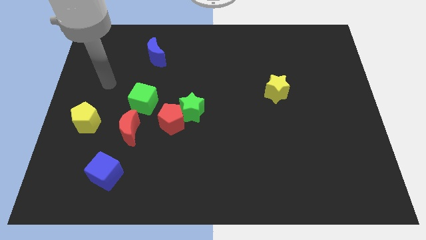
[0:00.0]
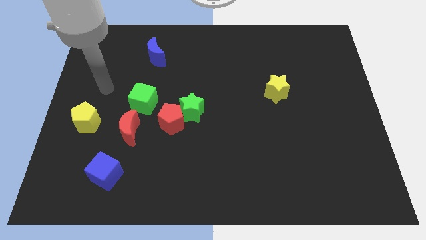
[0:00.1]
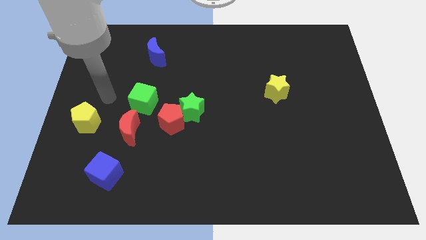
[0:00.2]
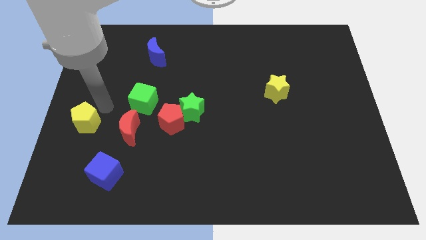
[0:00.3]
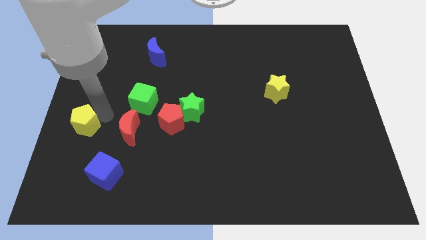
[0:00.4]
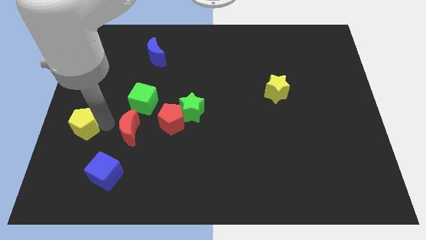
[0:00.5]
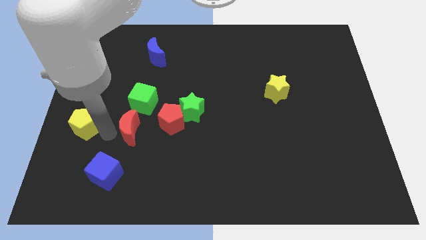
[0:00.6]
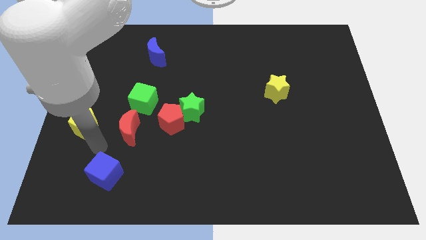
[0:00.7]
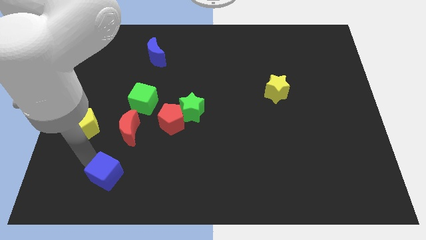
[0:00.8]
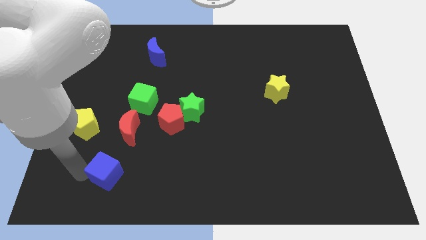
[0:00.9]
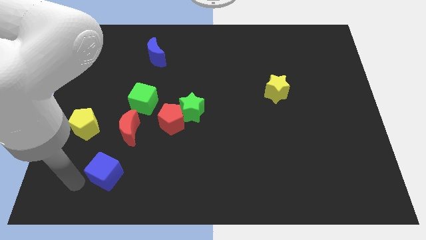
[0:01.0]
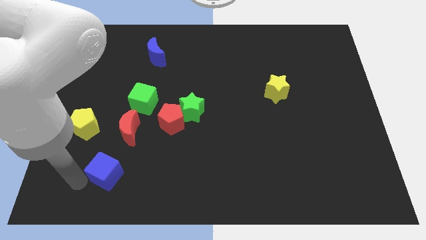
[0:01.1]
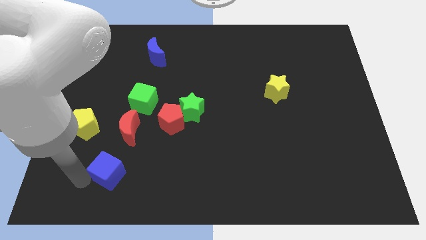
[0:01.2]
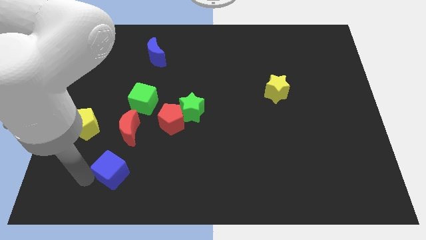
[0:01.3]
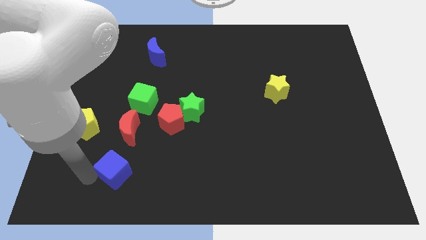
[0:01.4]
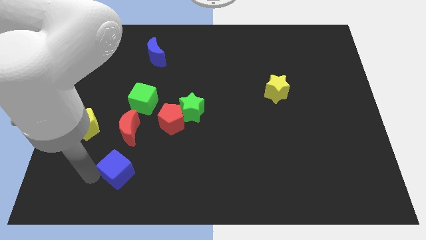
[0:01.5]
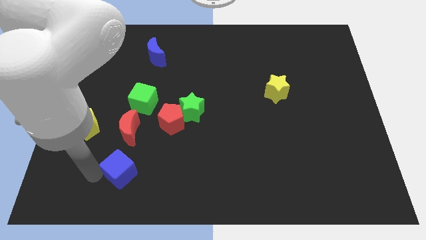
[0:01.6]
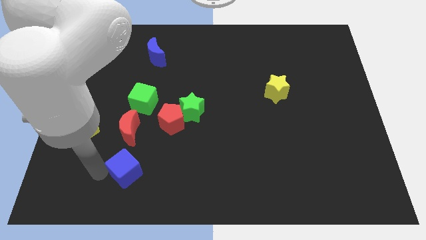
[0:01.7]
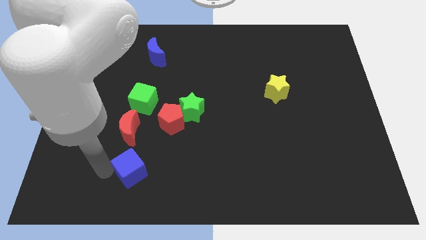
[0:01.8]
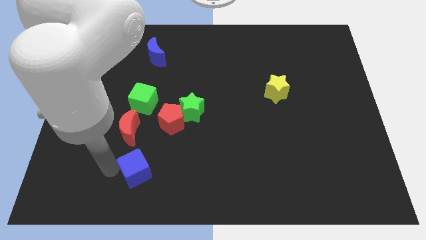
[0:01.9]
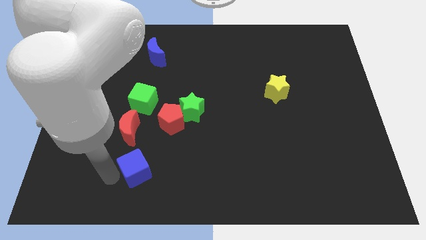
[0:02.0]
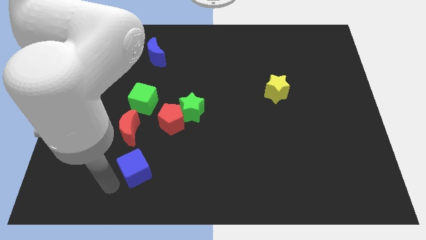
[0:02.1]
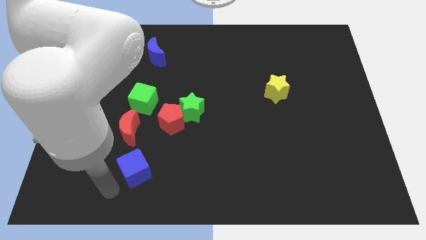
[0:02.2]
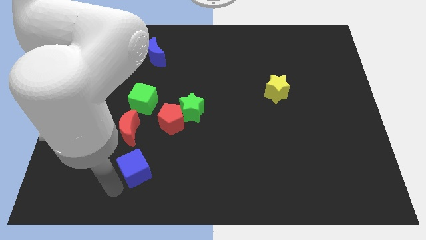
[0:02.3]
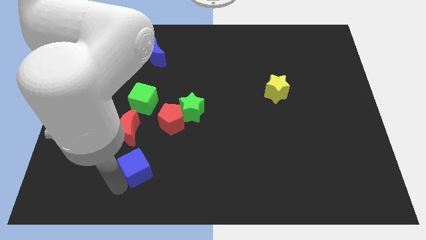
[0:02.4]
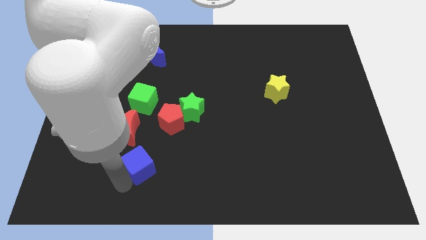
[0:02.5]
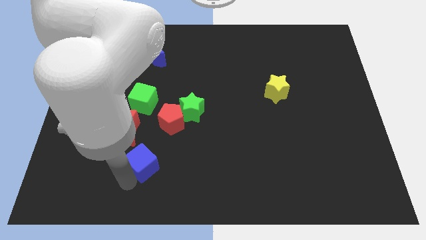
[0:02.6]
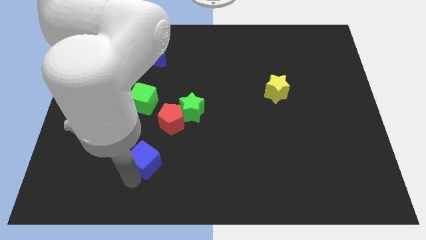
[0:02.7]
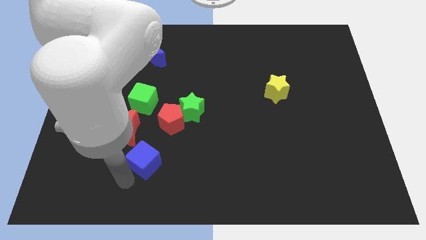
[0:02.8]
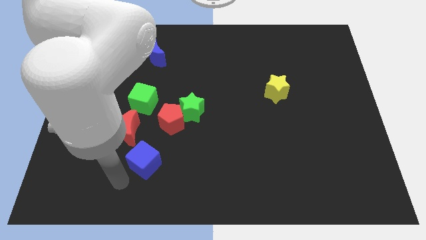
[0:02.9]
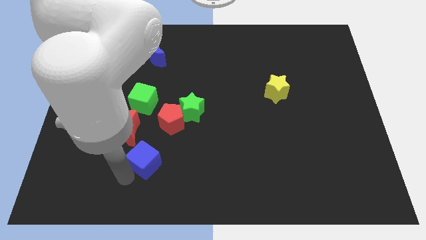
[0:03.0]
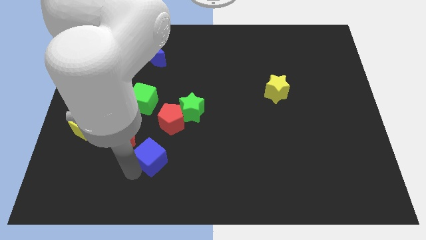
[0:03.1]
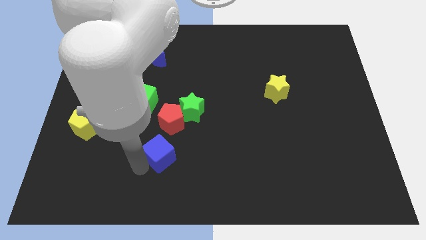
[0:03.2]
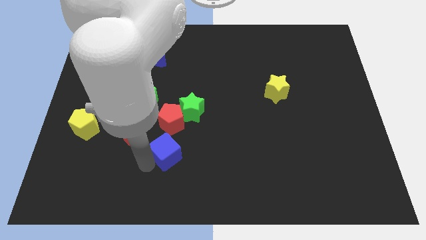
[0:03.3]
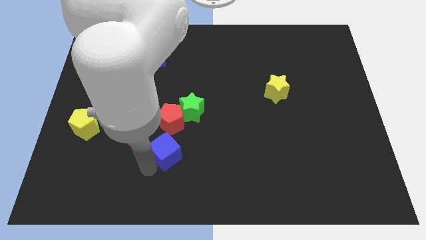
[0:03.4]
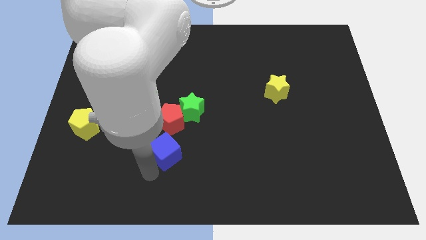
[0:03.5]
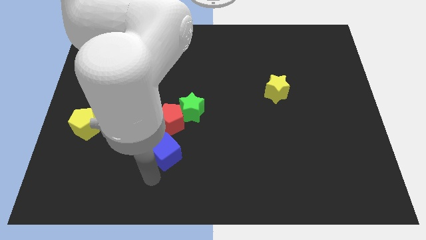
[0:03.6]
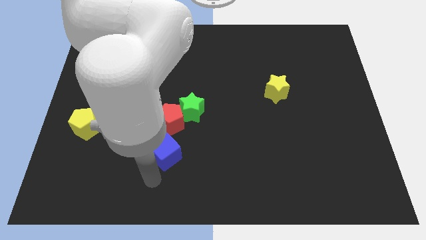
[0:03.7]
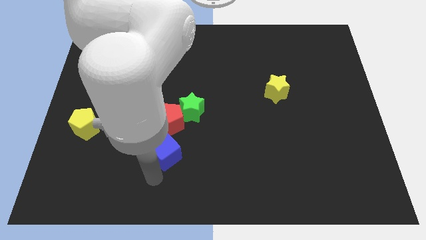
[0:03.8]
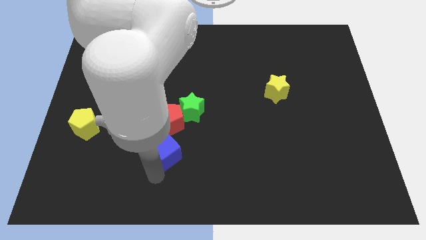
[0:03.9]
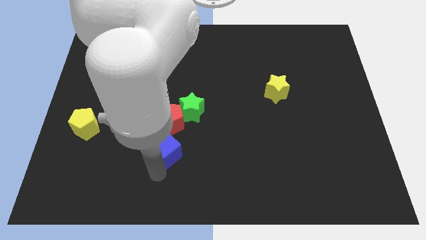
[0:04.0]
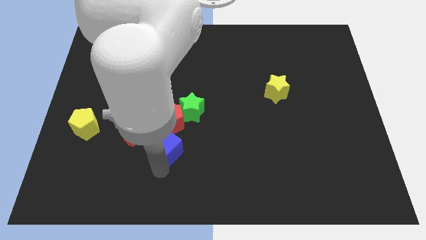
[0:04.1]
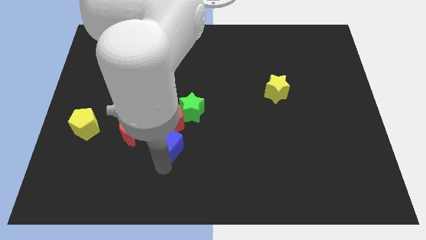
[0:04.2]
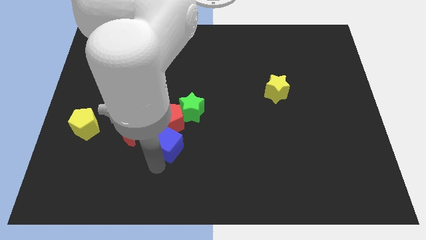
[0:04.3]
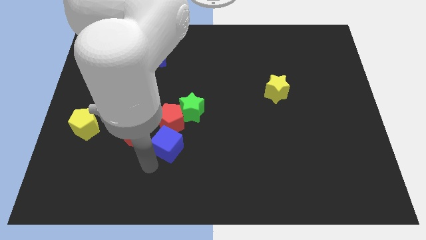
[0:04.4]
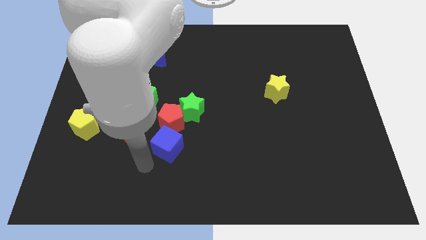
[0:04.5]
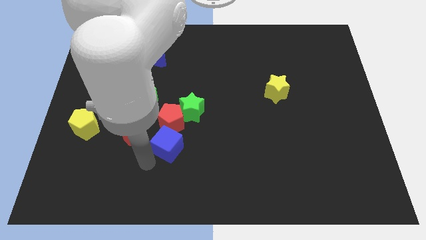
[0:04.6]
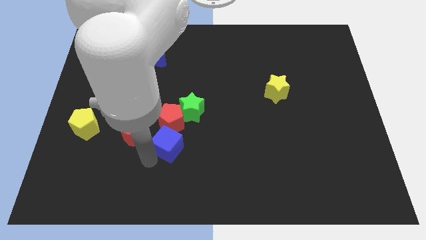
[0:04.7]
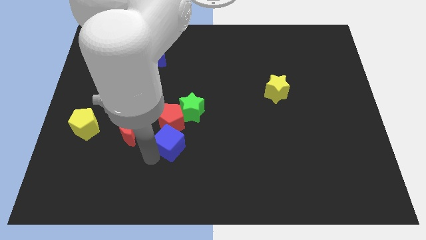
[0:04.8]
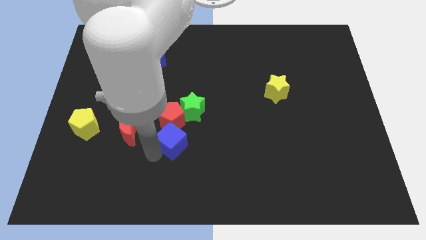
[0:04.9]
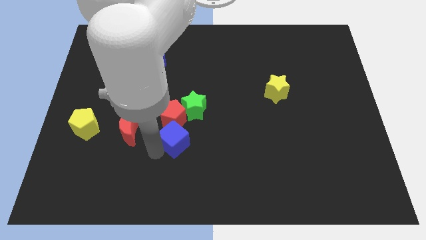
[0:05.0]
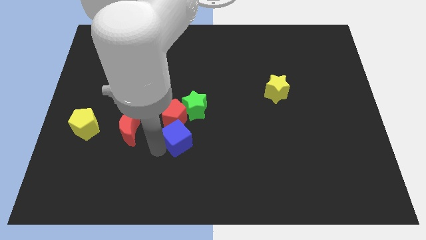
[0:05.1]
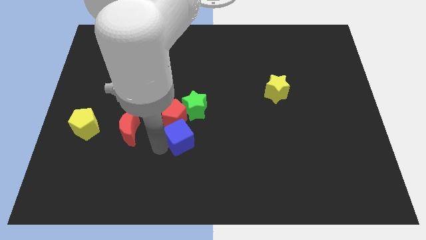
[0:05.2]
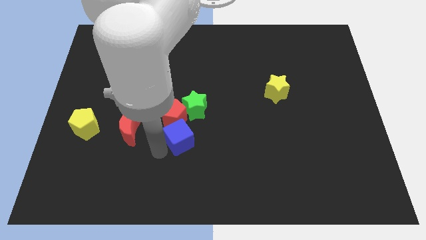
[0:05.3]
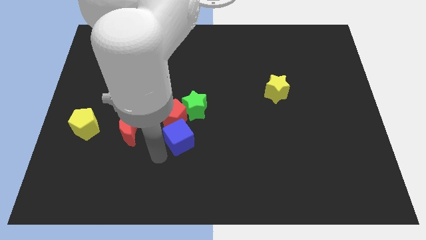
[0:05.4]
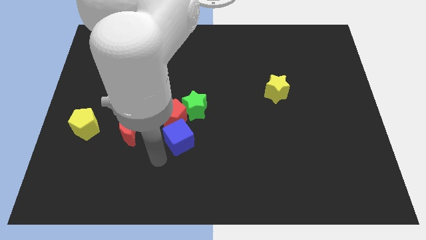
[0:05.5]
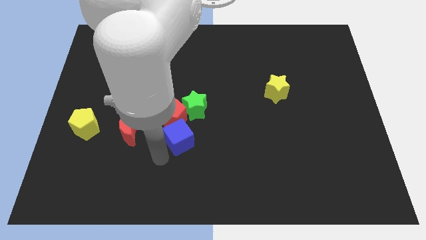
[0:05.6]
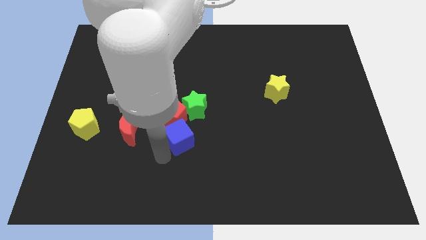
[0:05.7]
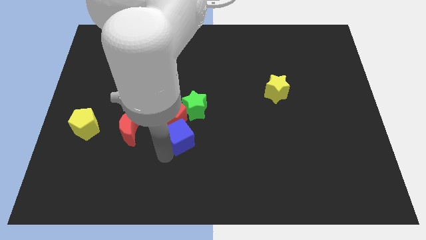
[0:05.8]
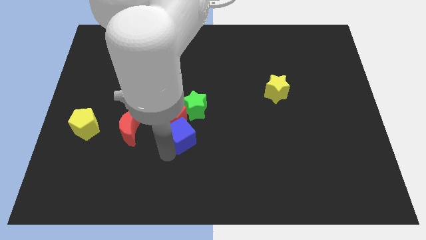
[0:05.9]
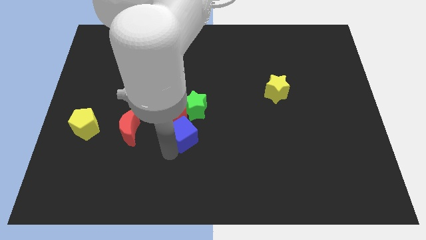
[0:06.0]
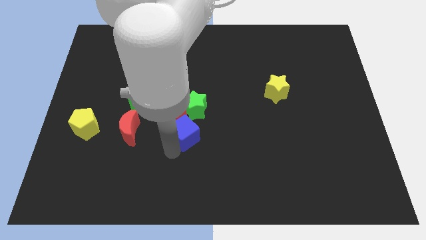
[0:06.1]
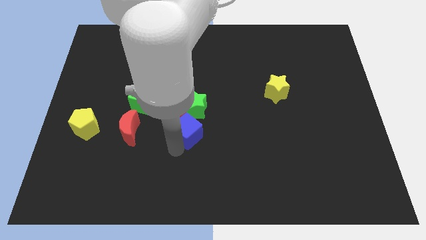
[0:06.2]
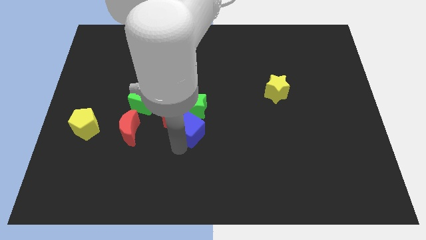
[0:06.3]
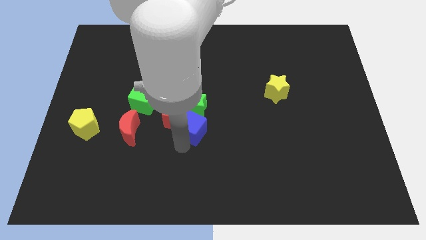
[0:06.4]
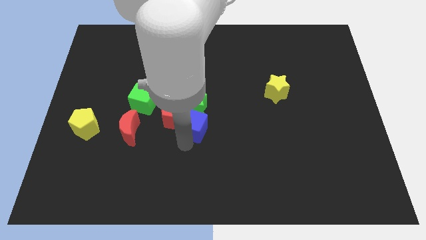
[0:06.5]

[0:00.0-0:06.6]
put the blue cube to the green star

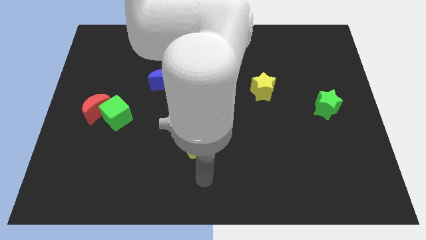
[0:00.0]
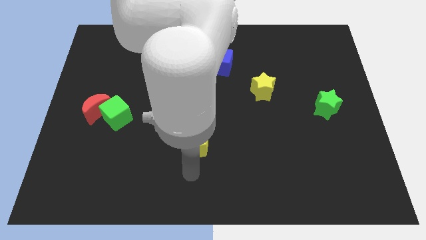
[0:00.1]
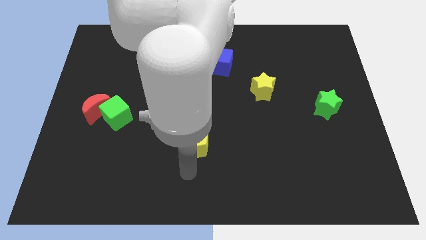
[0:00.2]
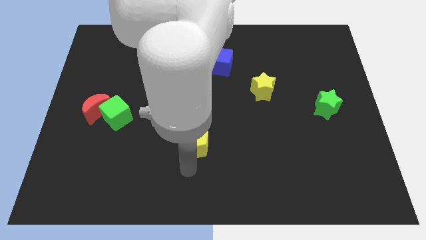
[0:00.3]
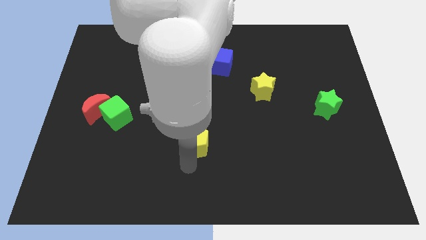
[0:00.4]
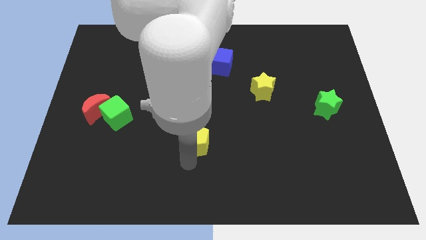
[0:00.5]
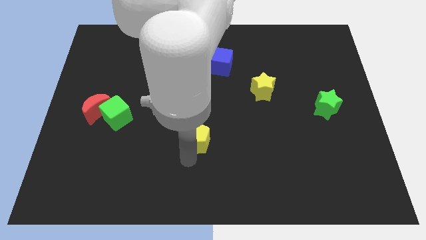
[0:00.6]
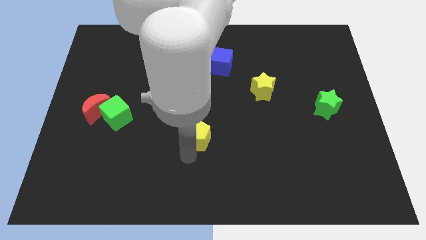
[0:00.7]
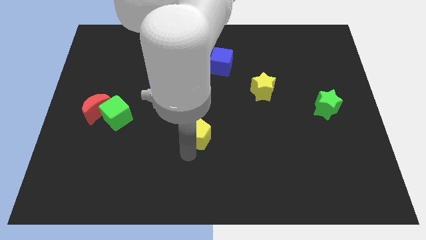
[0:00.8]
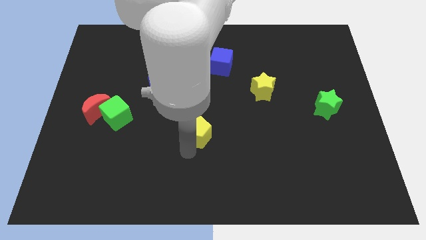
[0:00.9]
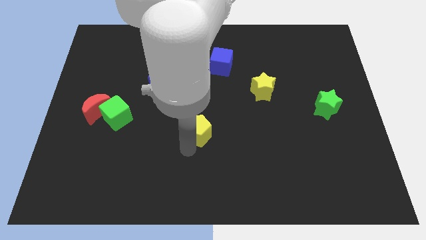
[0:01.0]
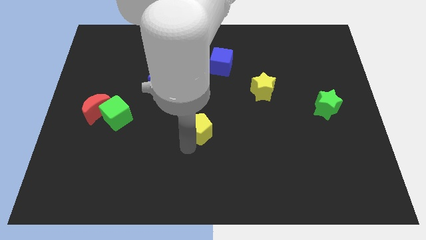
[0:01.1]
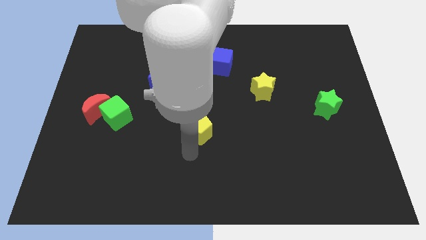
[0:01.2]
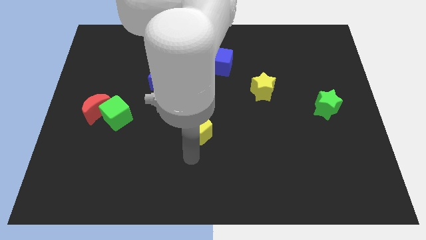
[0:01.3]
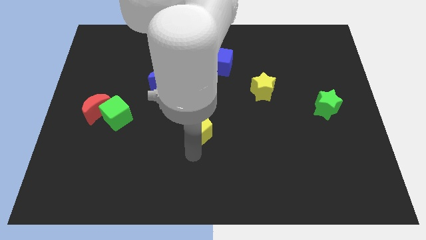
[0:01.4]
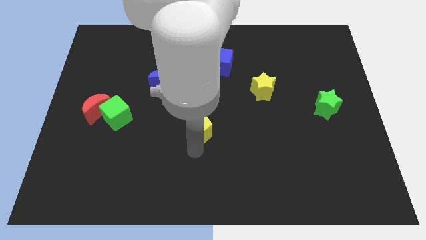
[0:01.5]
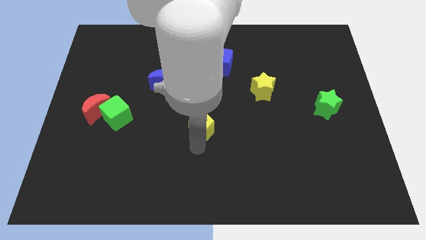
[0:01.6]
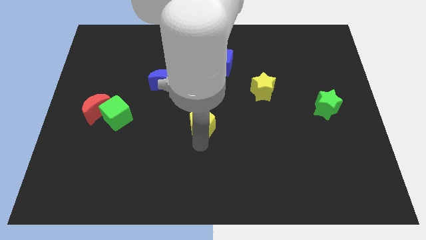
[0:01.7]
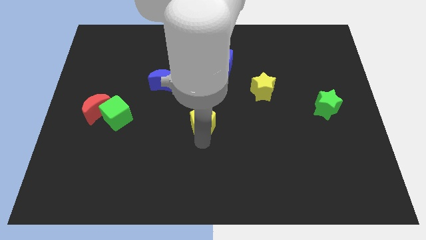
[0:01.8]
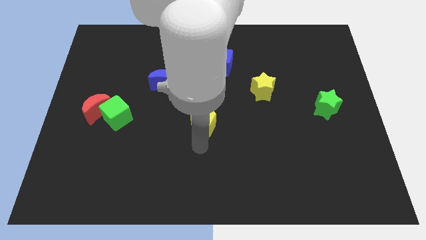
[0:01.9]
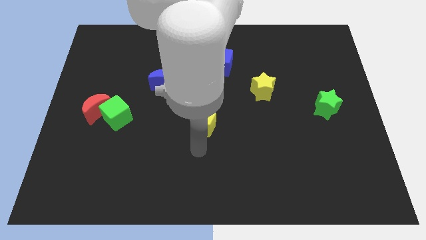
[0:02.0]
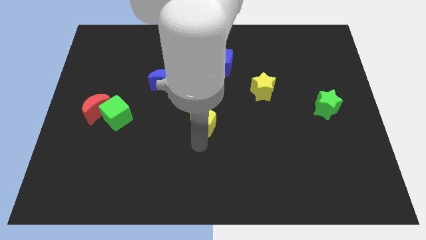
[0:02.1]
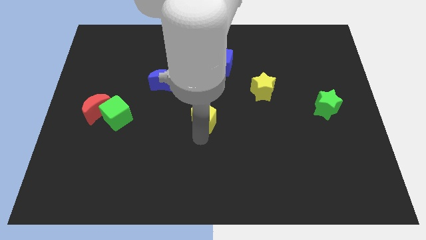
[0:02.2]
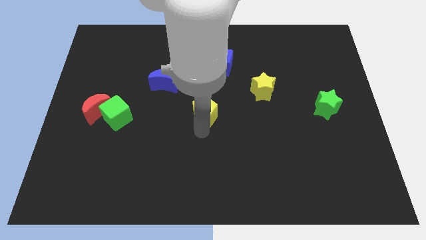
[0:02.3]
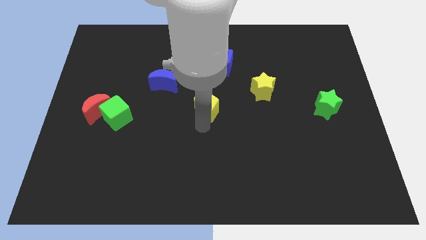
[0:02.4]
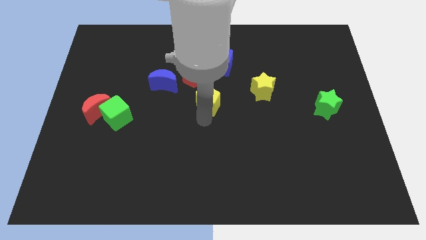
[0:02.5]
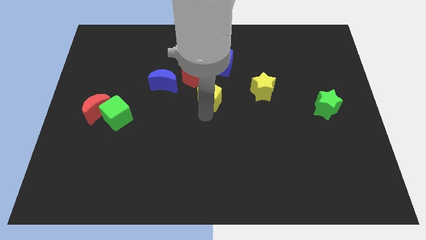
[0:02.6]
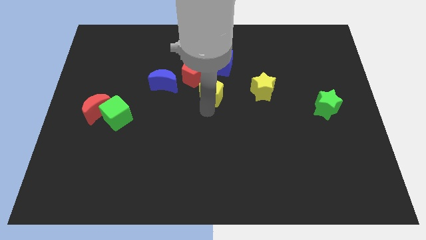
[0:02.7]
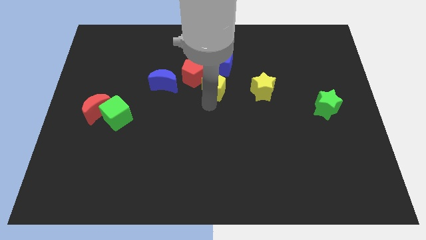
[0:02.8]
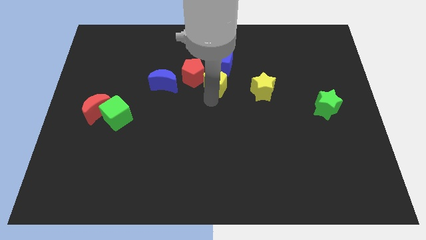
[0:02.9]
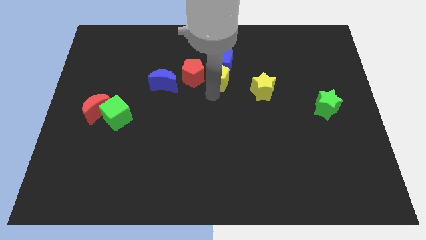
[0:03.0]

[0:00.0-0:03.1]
move the yellow pentagon next to the blue cube
